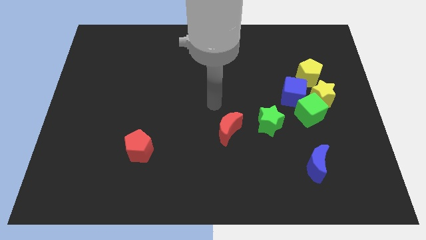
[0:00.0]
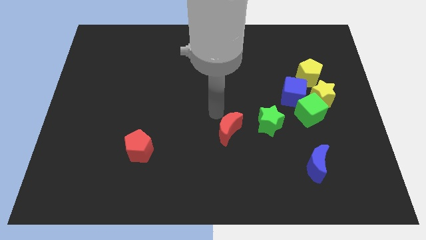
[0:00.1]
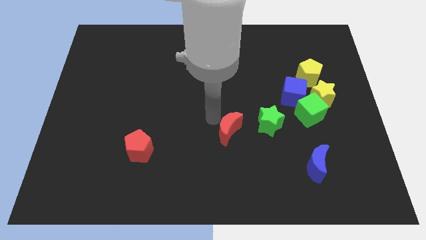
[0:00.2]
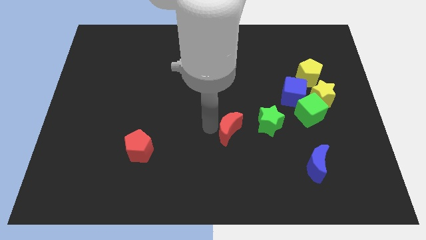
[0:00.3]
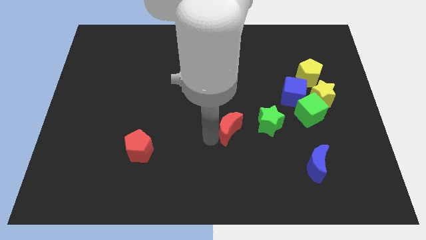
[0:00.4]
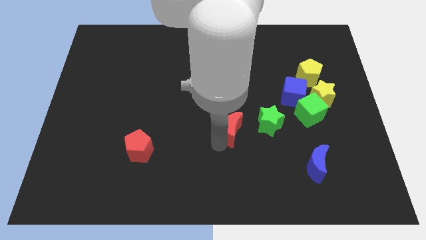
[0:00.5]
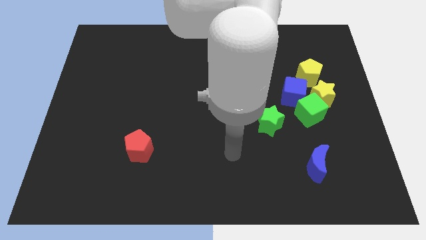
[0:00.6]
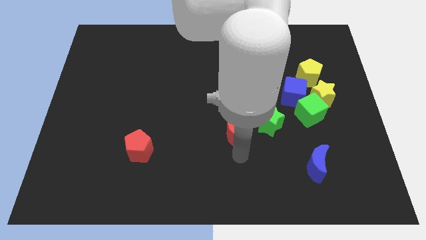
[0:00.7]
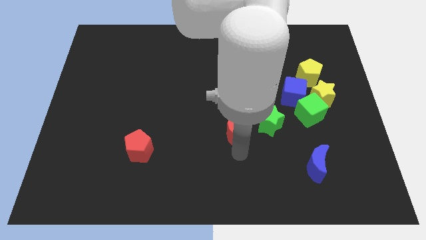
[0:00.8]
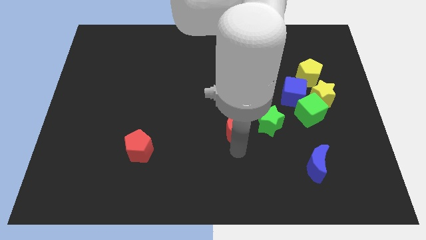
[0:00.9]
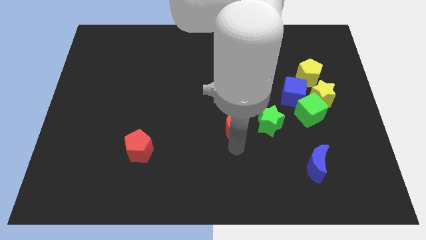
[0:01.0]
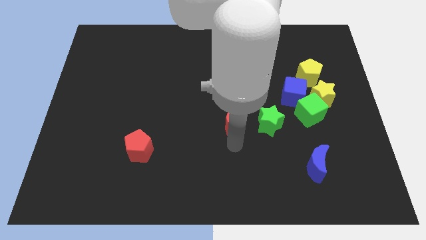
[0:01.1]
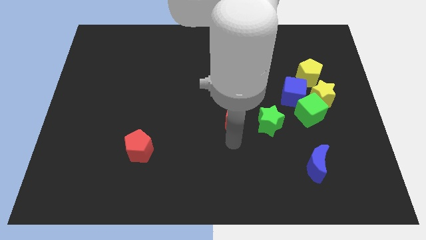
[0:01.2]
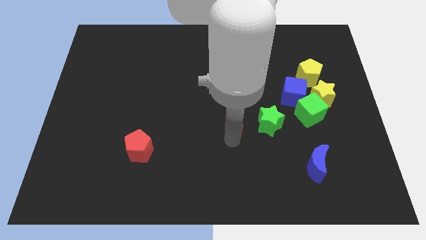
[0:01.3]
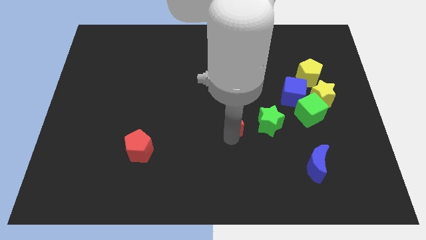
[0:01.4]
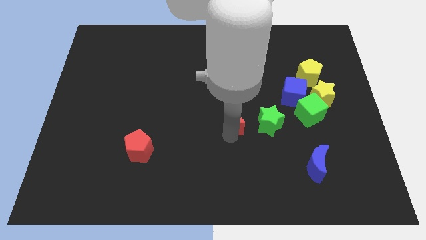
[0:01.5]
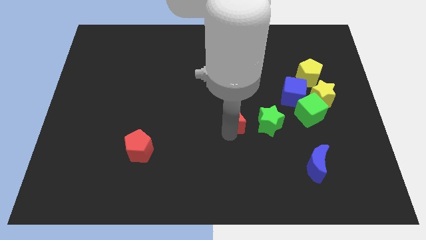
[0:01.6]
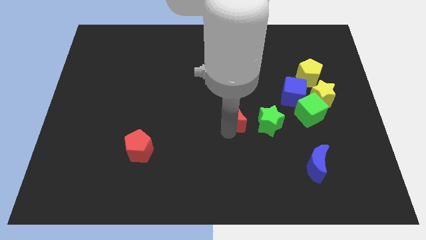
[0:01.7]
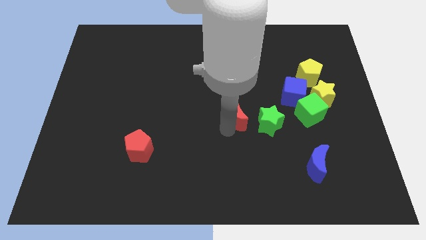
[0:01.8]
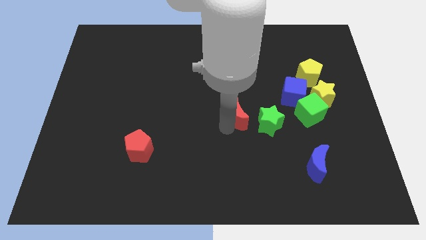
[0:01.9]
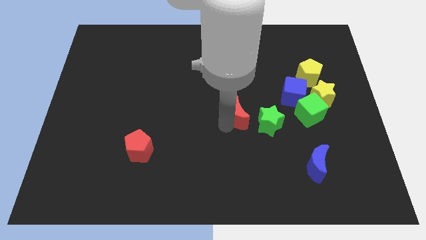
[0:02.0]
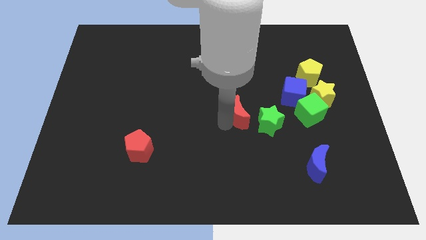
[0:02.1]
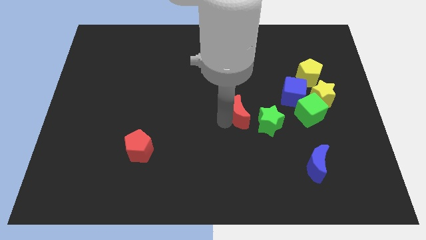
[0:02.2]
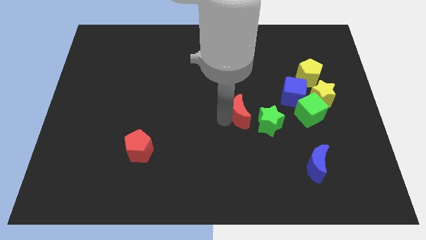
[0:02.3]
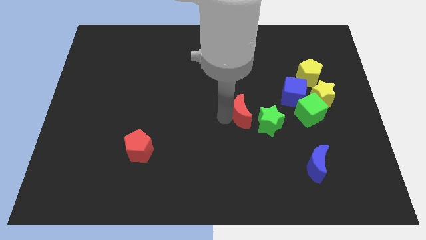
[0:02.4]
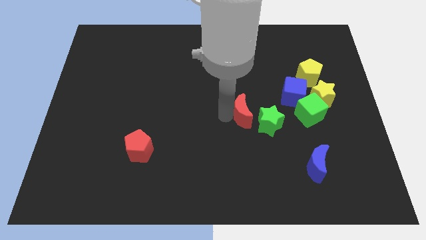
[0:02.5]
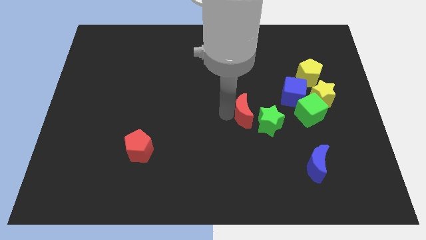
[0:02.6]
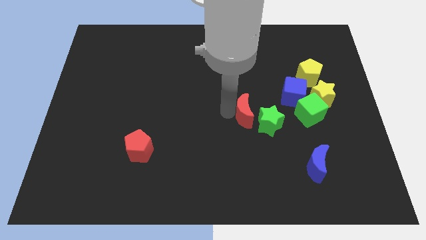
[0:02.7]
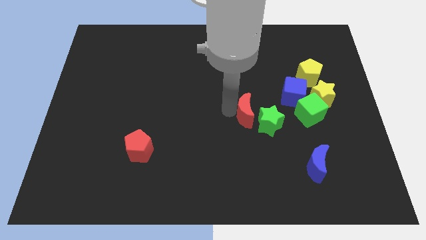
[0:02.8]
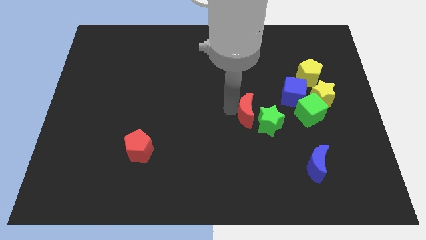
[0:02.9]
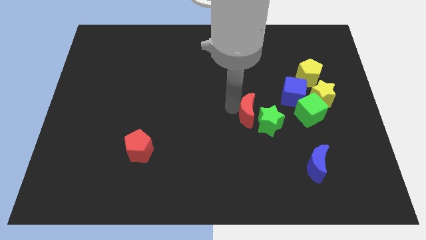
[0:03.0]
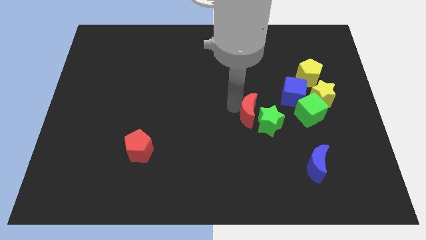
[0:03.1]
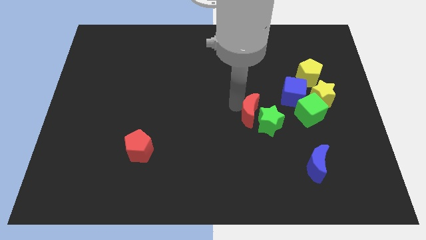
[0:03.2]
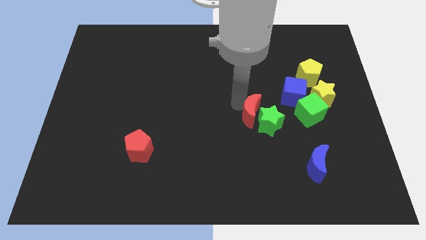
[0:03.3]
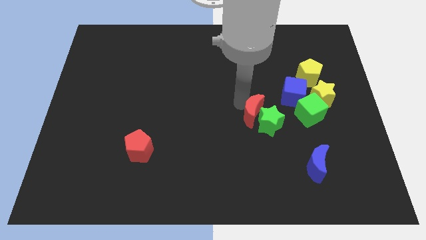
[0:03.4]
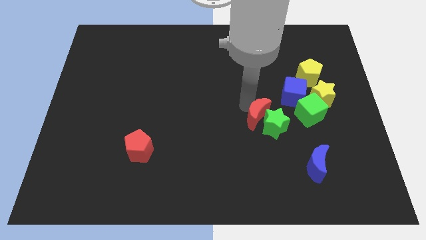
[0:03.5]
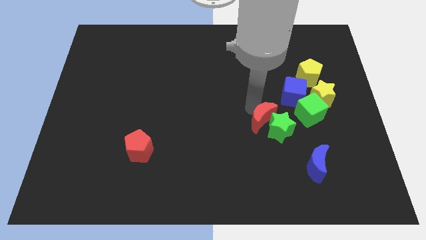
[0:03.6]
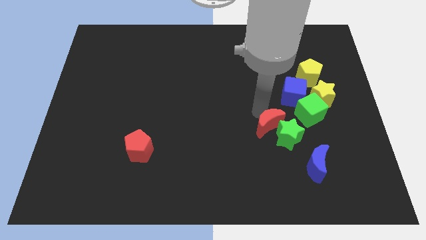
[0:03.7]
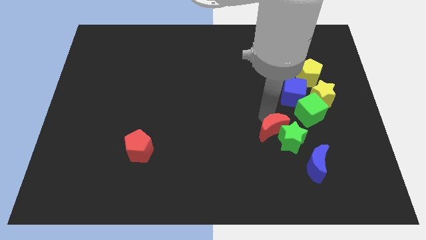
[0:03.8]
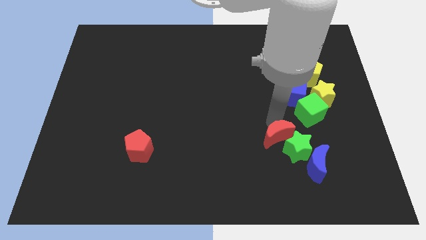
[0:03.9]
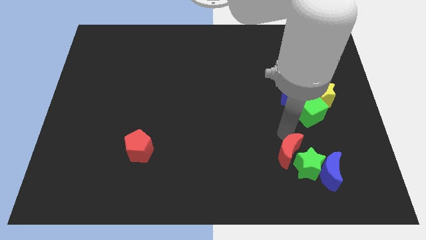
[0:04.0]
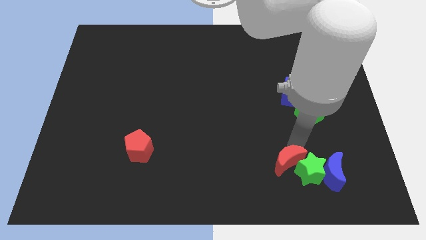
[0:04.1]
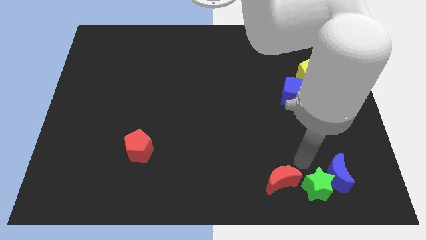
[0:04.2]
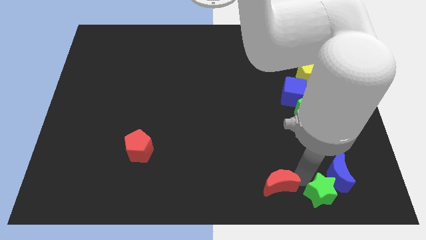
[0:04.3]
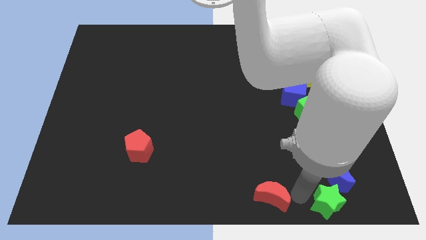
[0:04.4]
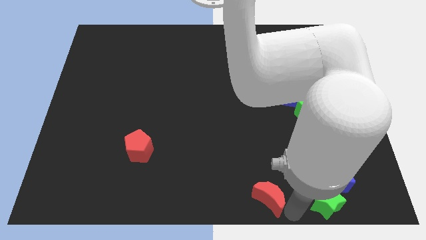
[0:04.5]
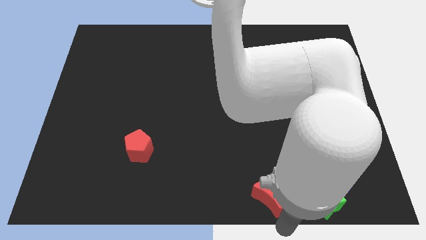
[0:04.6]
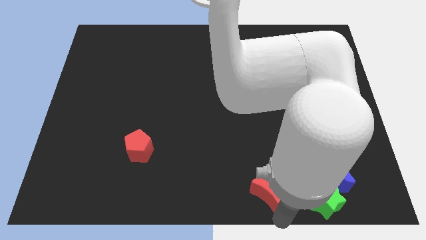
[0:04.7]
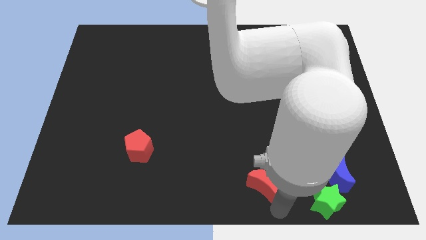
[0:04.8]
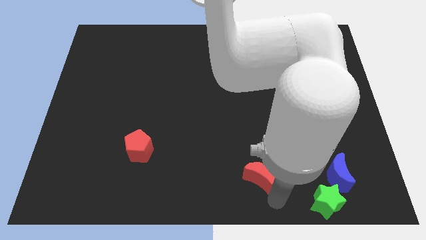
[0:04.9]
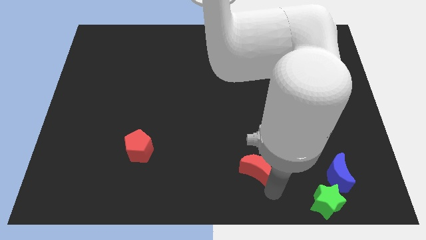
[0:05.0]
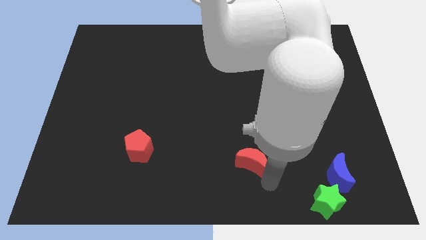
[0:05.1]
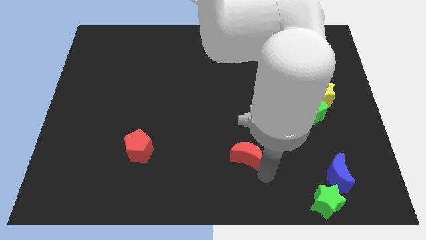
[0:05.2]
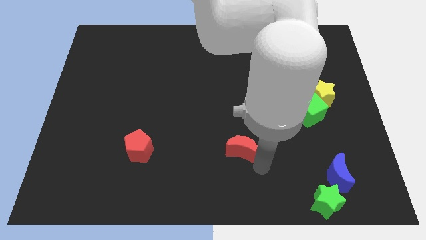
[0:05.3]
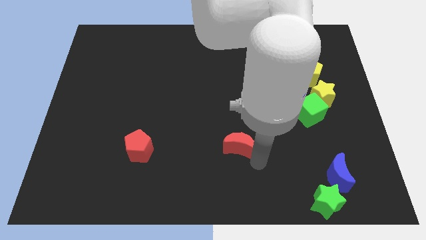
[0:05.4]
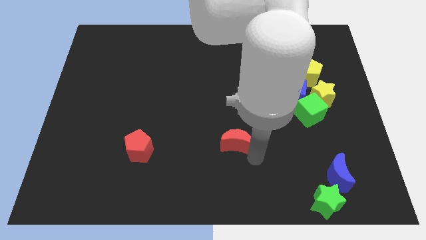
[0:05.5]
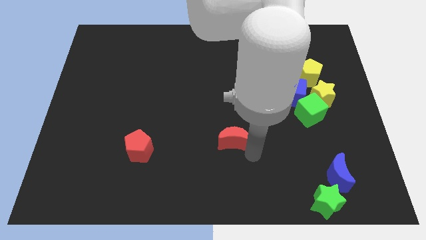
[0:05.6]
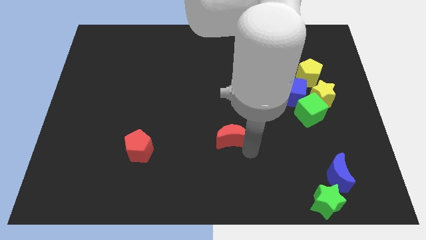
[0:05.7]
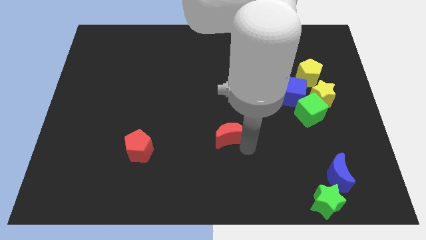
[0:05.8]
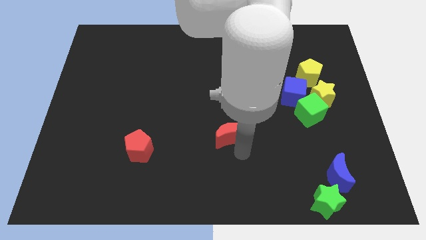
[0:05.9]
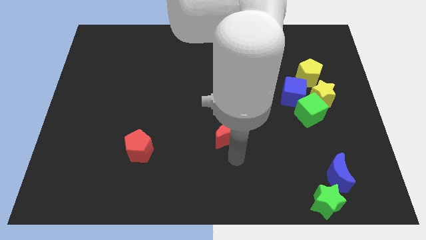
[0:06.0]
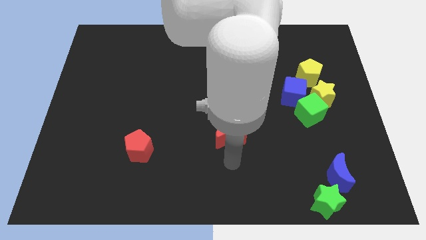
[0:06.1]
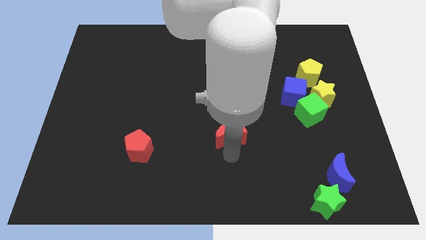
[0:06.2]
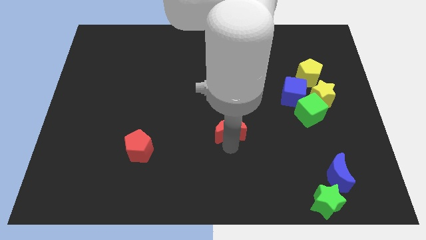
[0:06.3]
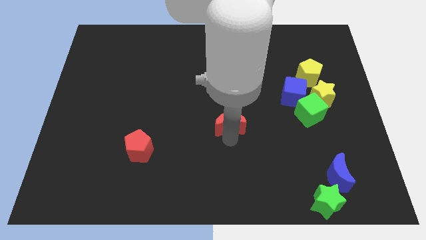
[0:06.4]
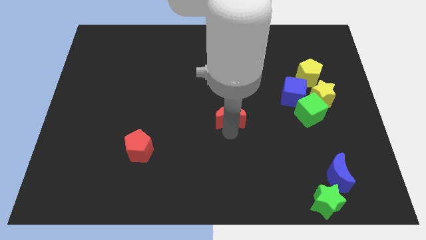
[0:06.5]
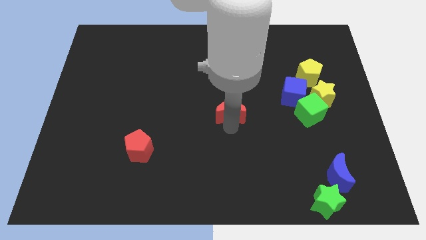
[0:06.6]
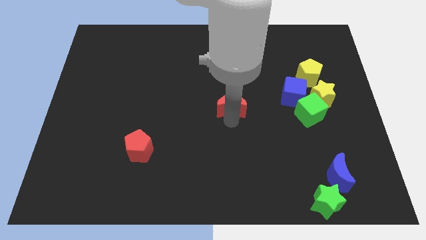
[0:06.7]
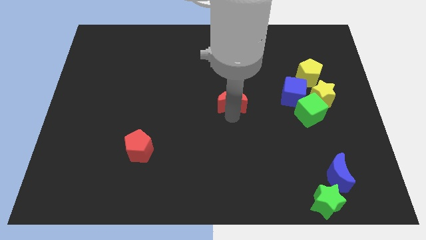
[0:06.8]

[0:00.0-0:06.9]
slightly move the red moon up

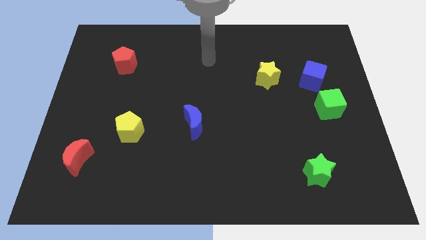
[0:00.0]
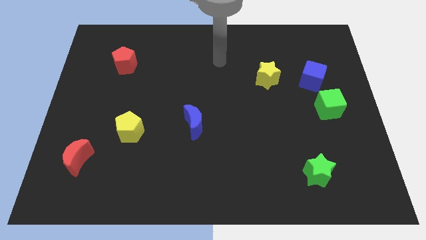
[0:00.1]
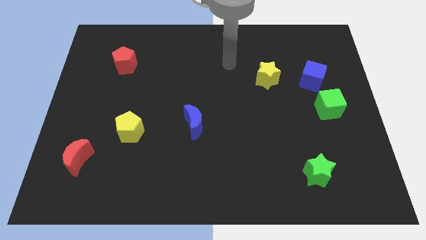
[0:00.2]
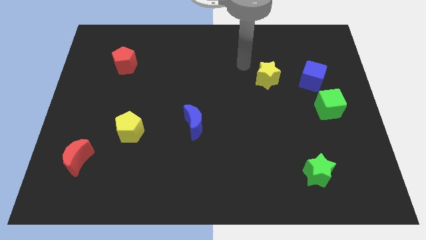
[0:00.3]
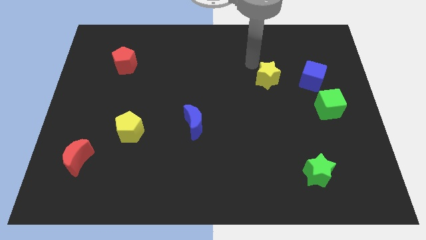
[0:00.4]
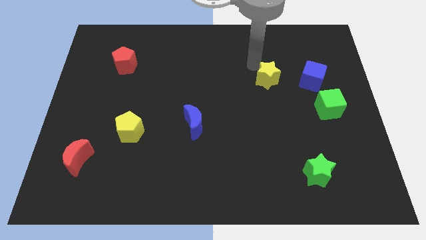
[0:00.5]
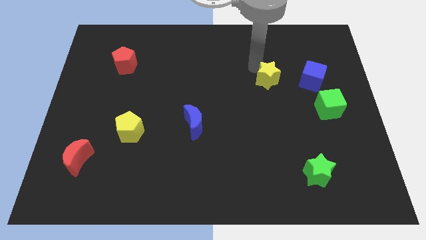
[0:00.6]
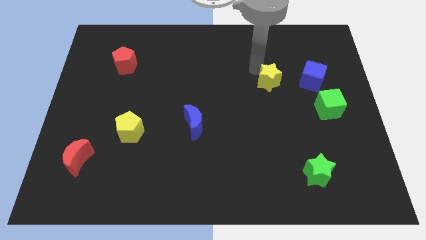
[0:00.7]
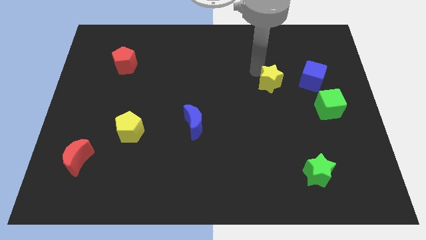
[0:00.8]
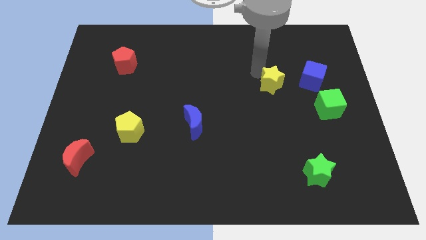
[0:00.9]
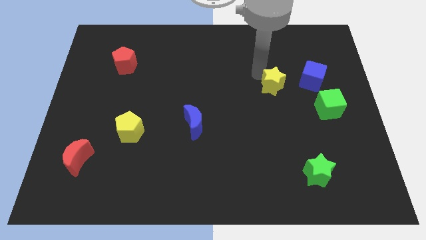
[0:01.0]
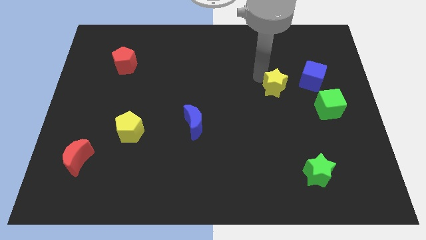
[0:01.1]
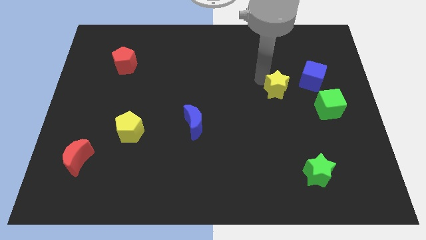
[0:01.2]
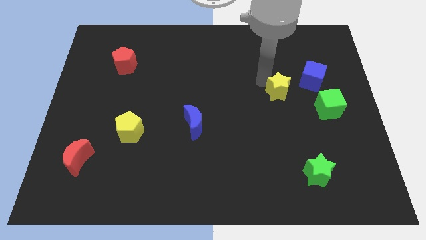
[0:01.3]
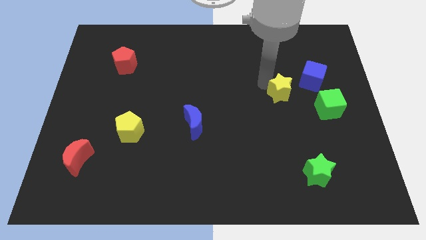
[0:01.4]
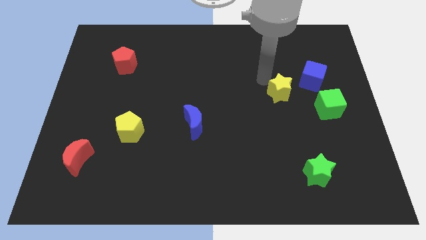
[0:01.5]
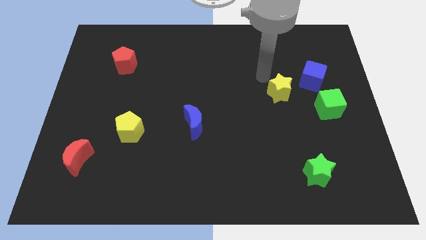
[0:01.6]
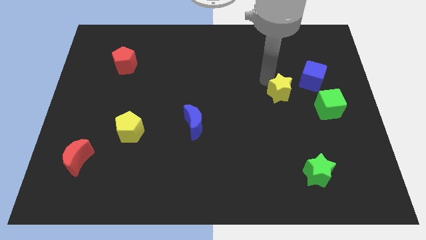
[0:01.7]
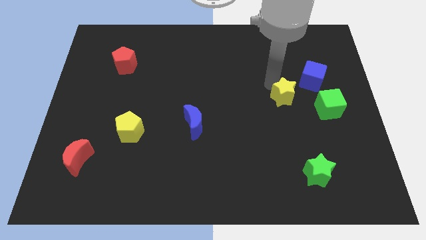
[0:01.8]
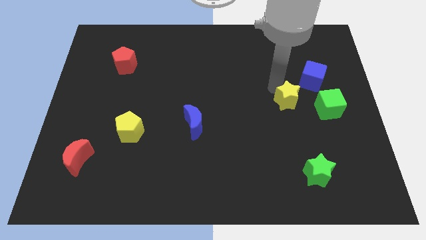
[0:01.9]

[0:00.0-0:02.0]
push the yellow star a little bit down and to the right diagonally
